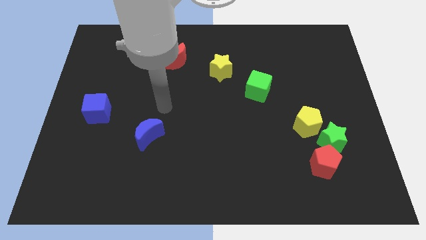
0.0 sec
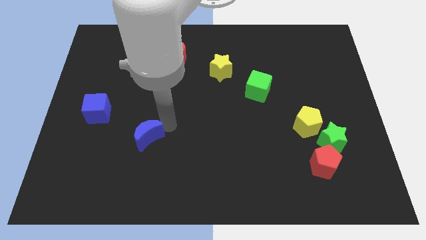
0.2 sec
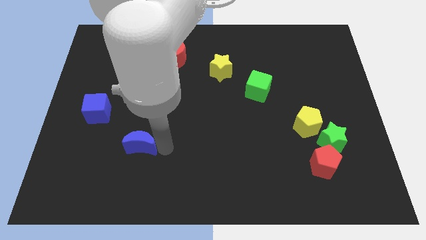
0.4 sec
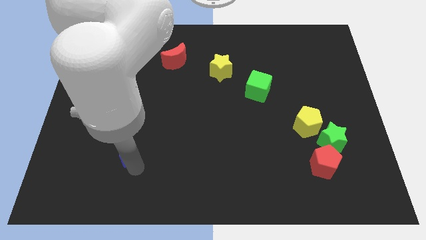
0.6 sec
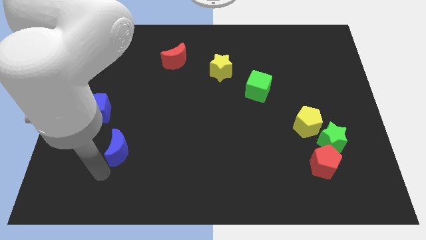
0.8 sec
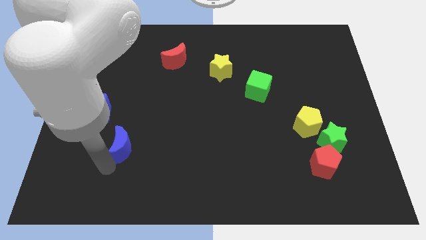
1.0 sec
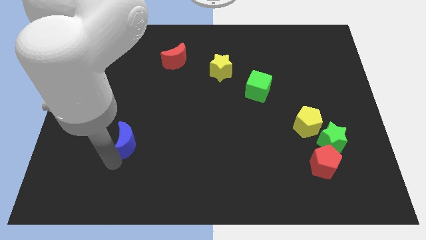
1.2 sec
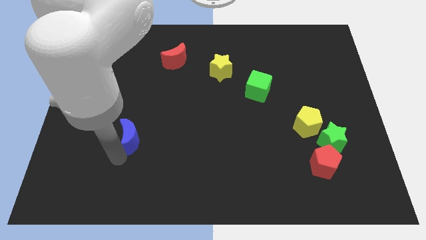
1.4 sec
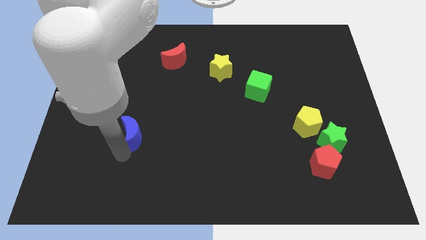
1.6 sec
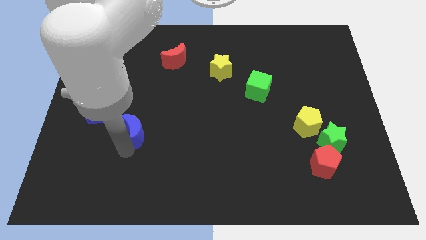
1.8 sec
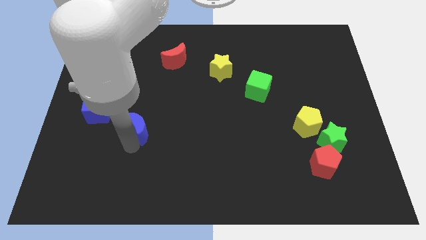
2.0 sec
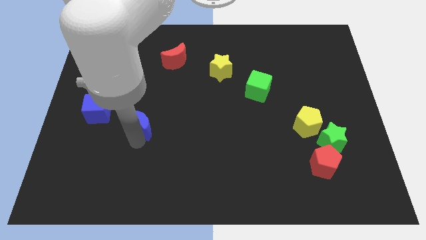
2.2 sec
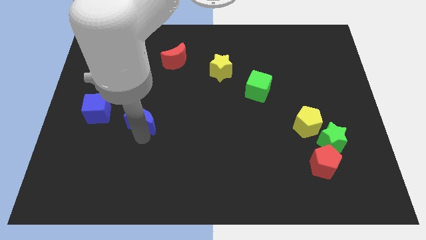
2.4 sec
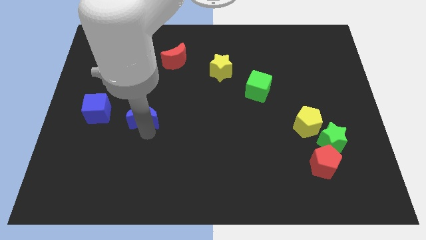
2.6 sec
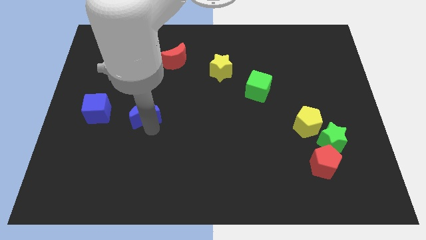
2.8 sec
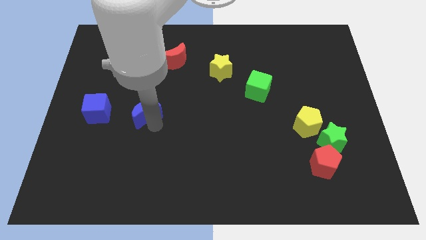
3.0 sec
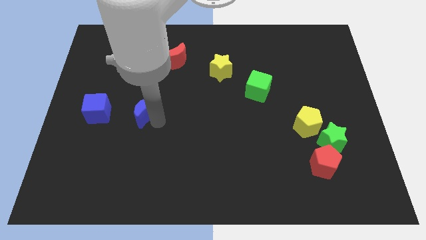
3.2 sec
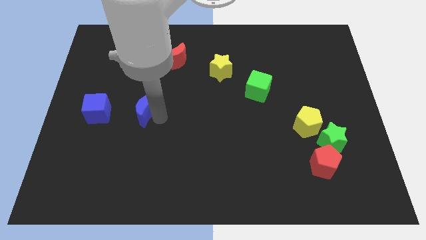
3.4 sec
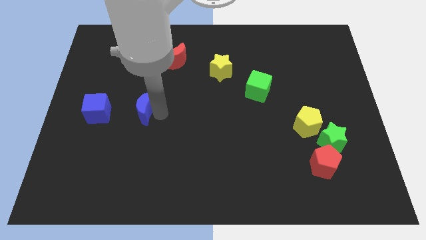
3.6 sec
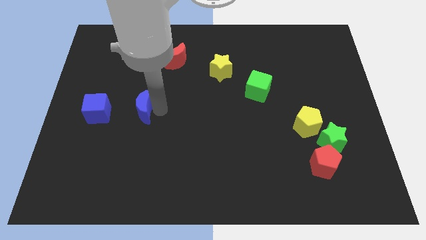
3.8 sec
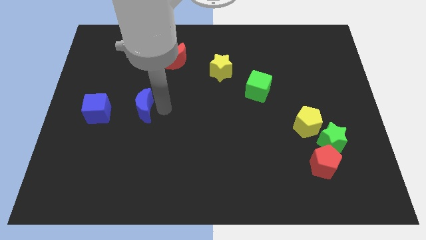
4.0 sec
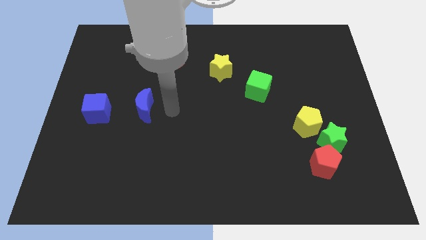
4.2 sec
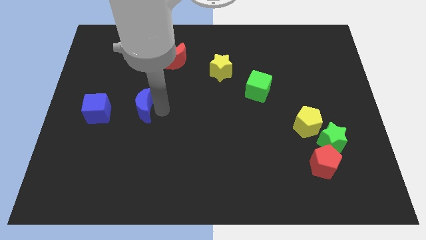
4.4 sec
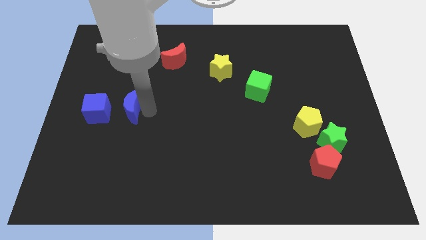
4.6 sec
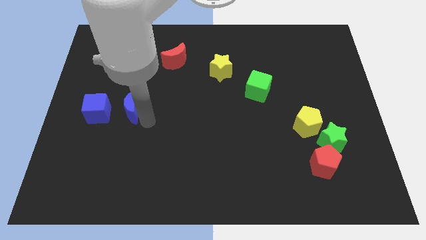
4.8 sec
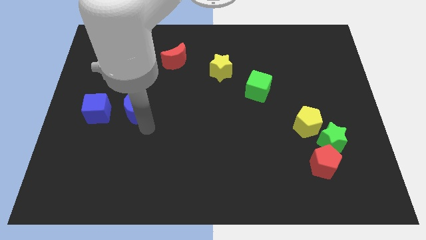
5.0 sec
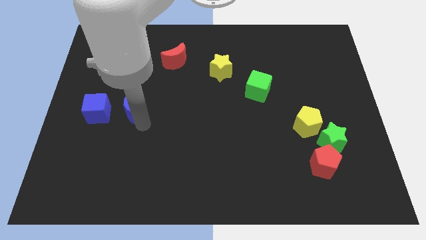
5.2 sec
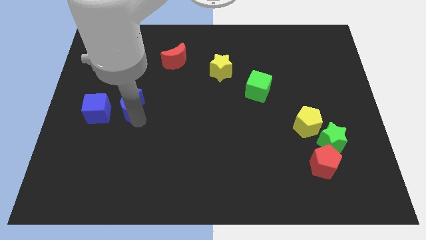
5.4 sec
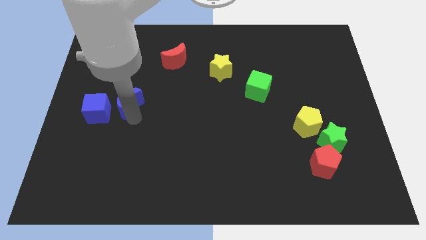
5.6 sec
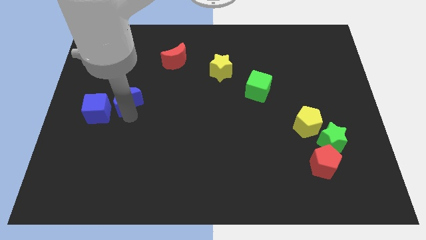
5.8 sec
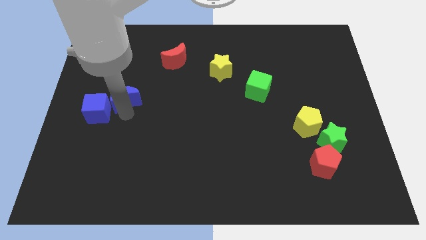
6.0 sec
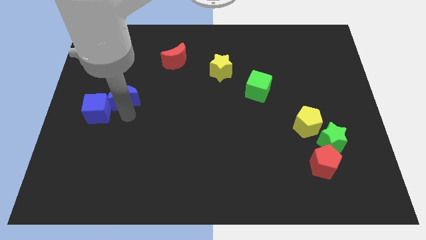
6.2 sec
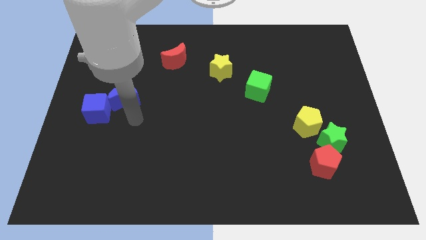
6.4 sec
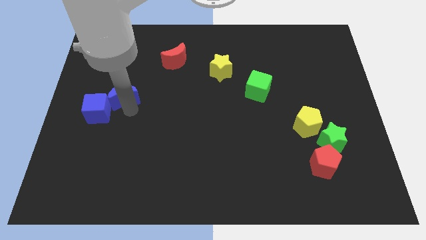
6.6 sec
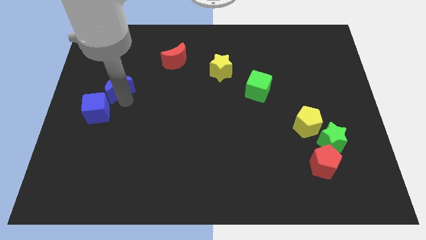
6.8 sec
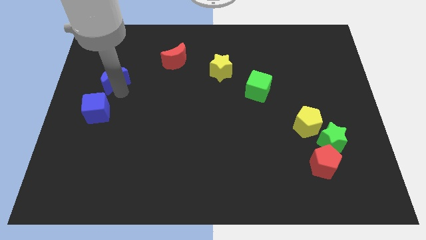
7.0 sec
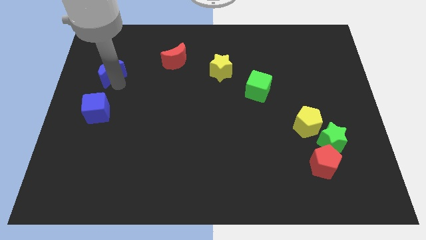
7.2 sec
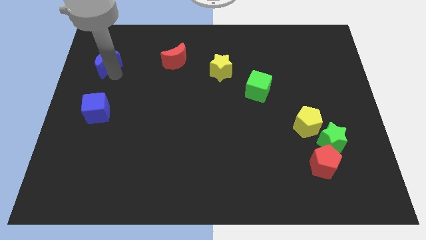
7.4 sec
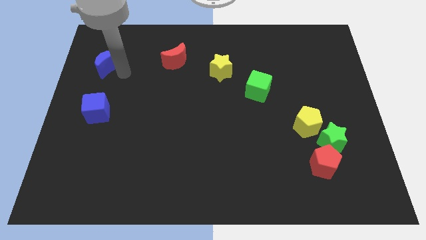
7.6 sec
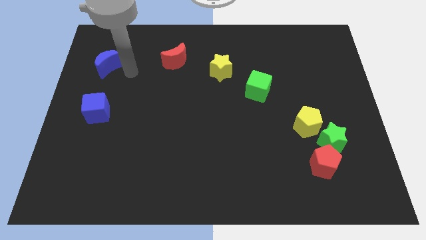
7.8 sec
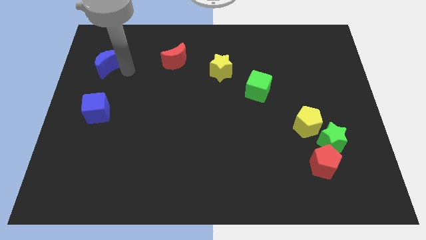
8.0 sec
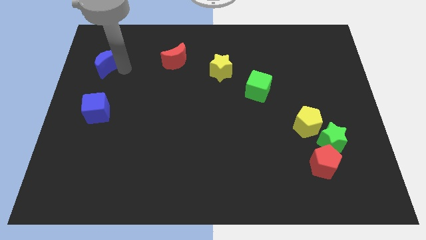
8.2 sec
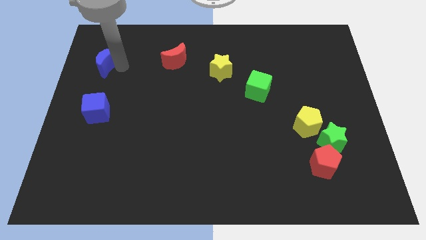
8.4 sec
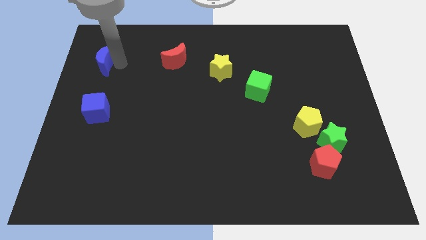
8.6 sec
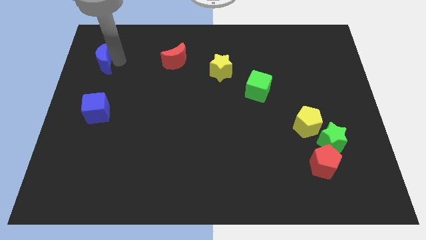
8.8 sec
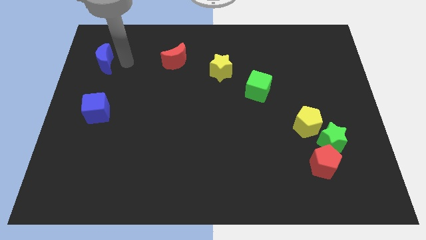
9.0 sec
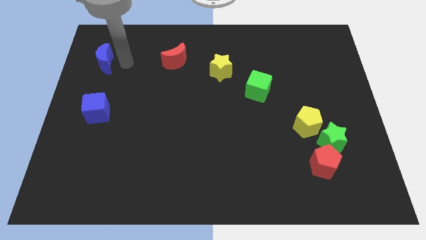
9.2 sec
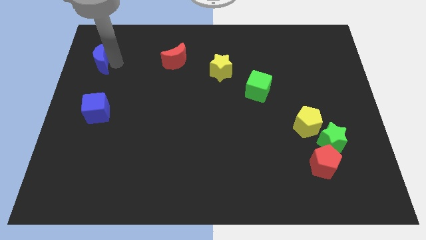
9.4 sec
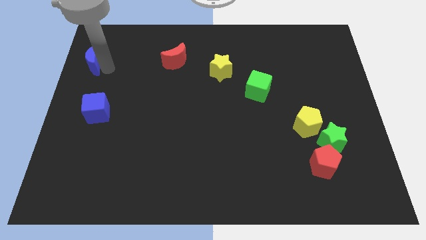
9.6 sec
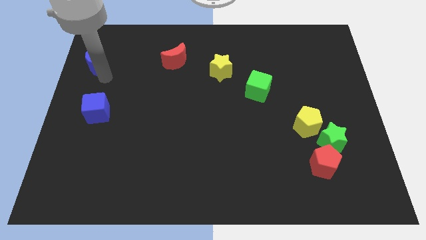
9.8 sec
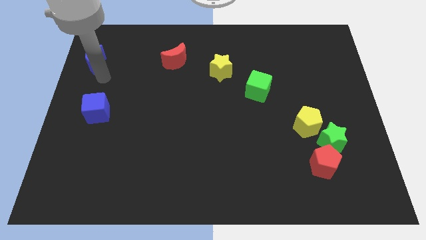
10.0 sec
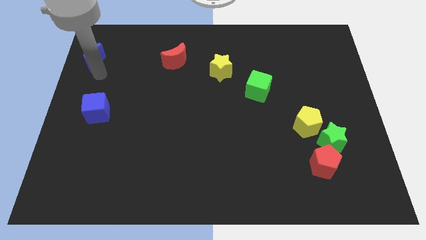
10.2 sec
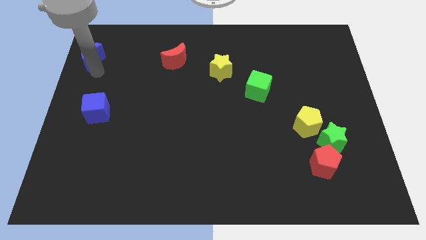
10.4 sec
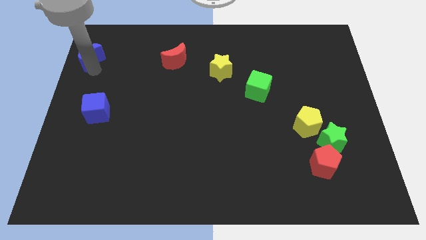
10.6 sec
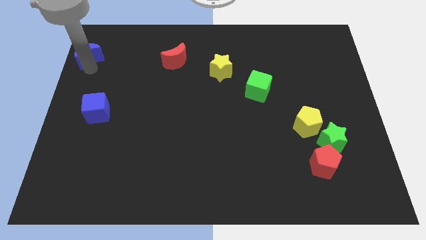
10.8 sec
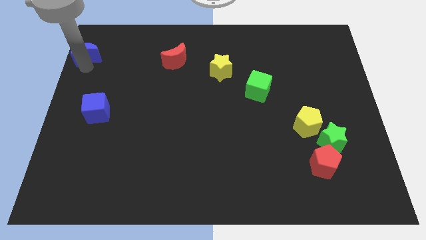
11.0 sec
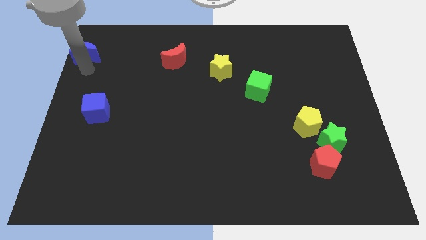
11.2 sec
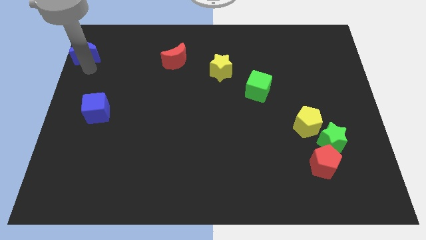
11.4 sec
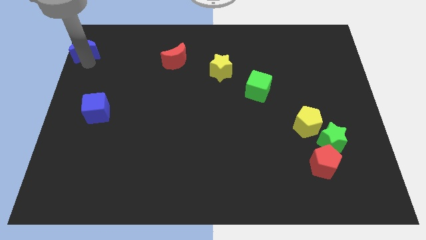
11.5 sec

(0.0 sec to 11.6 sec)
put the blue moon to the top left of the board
